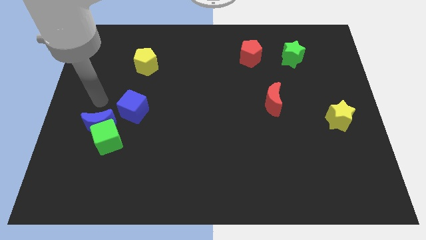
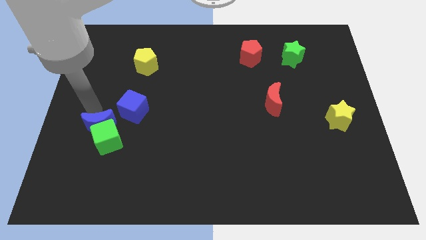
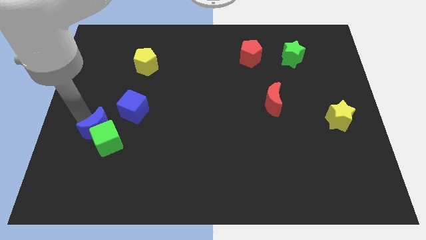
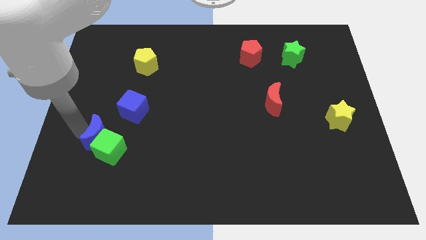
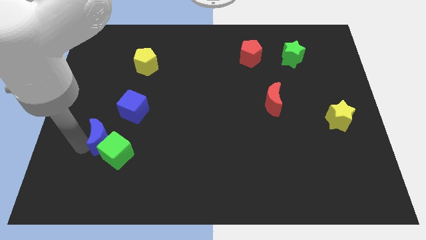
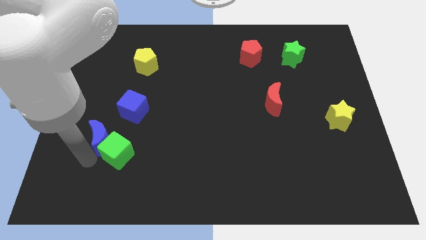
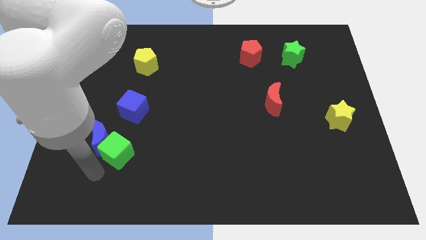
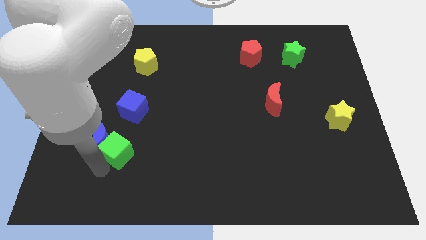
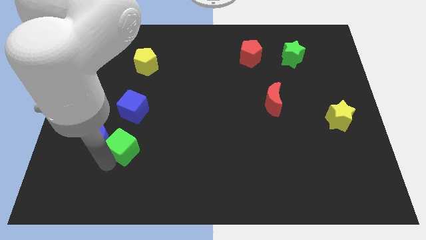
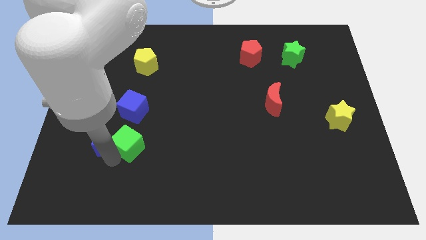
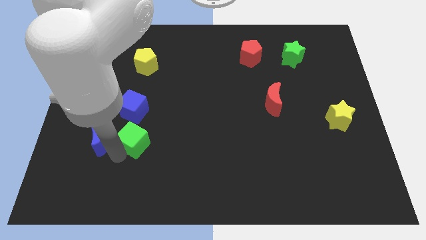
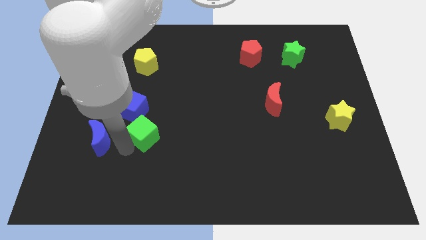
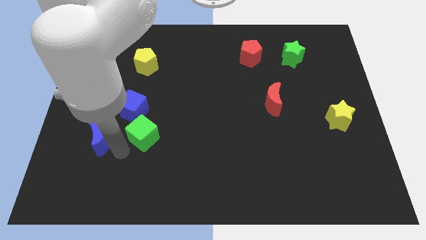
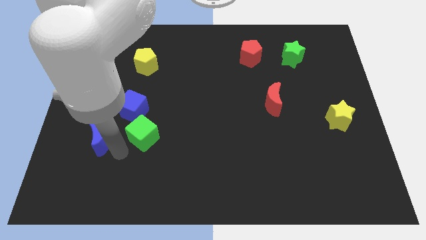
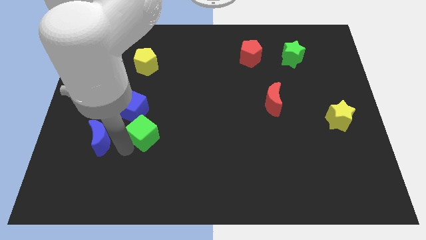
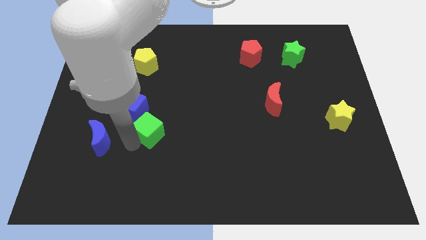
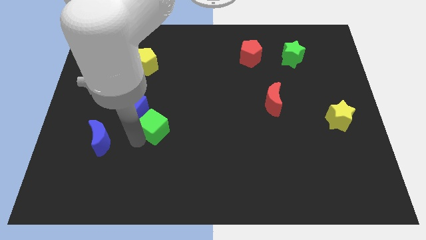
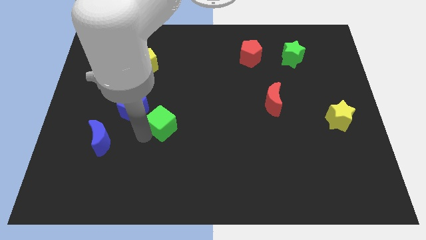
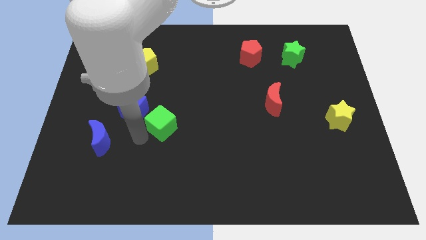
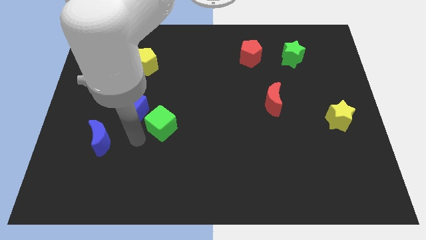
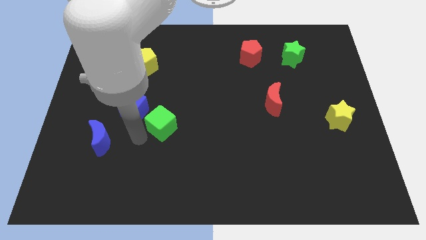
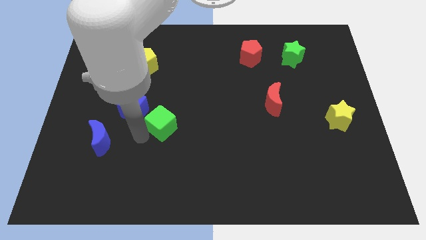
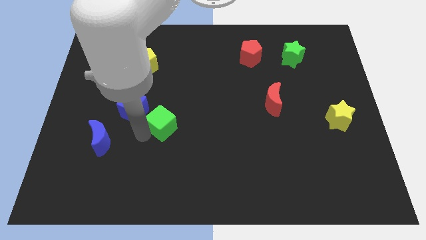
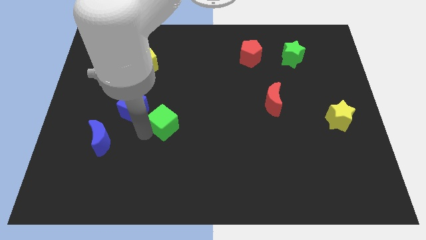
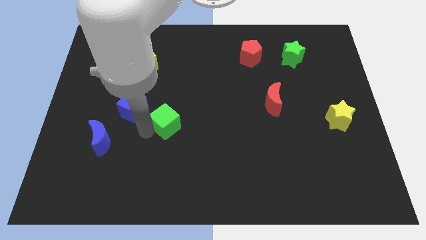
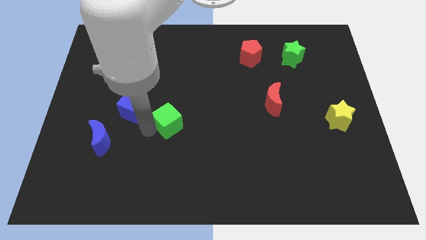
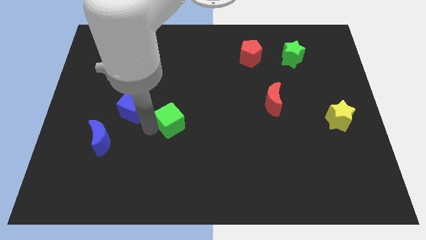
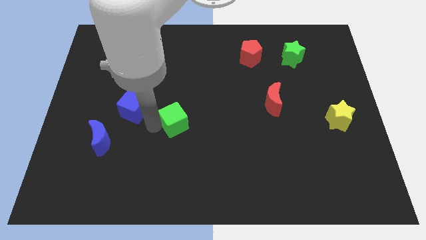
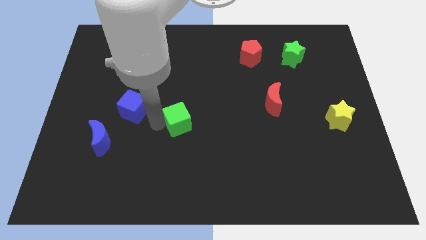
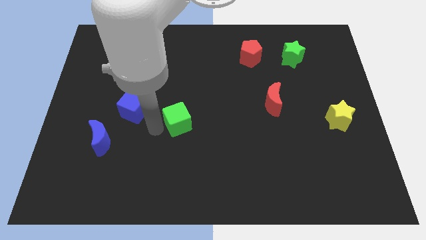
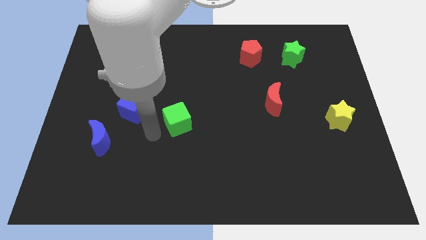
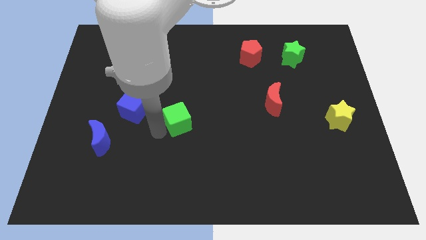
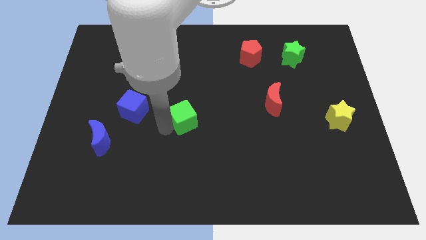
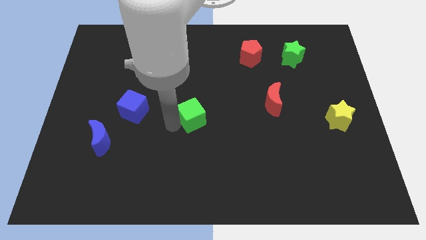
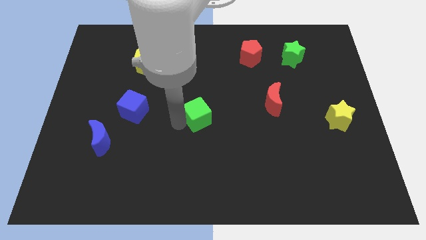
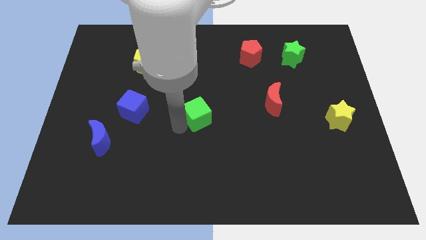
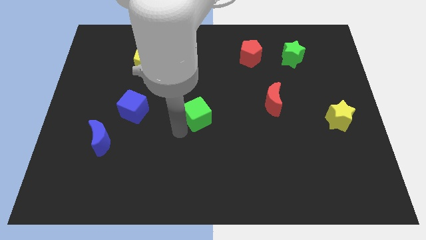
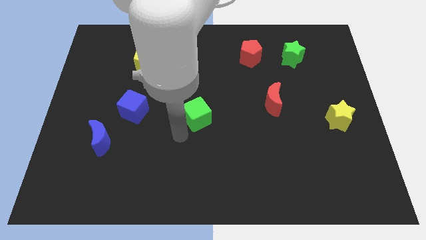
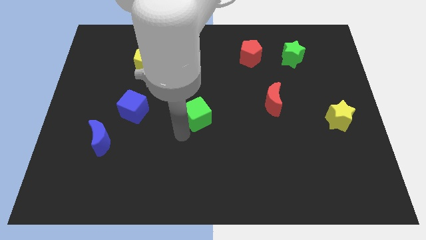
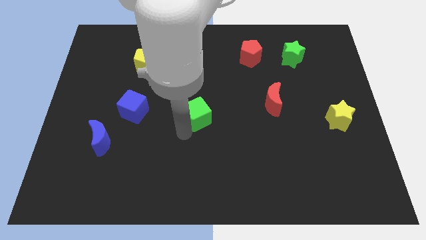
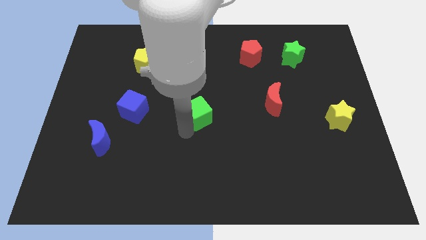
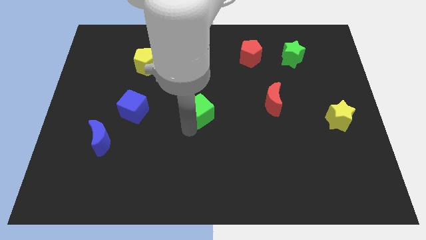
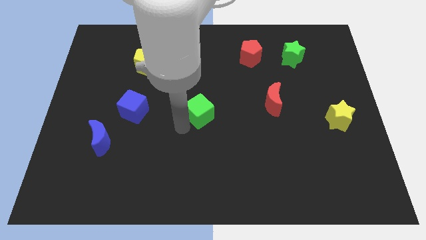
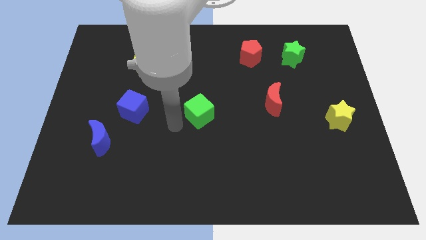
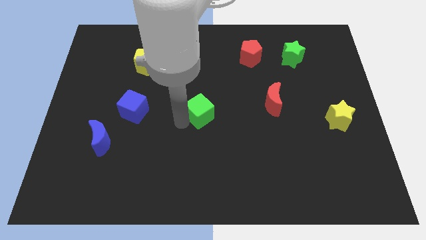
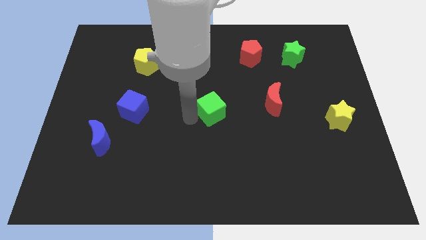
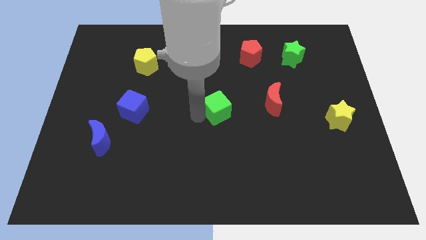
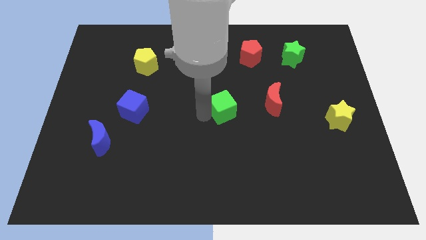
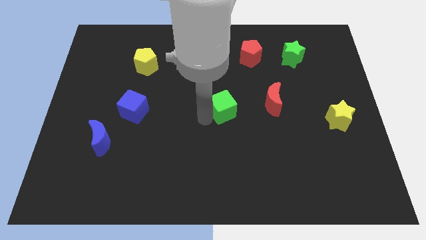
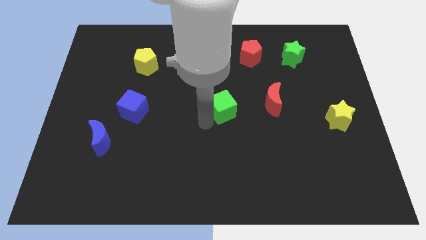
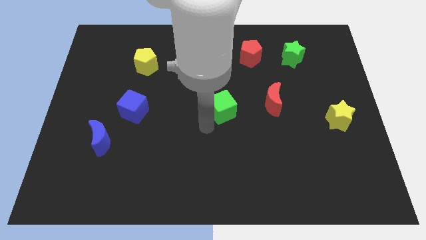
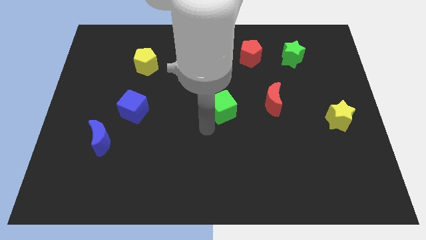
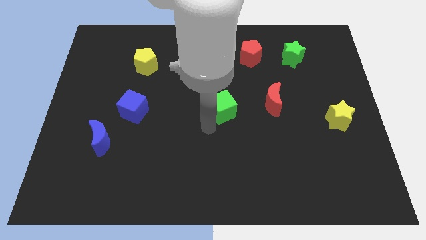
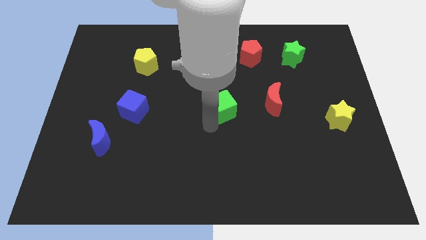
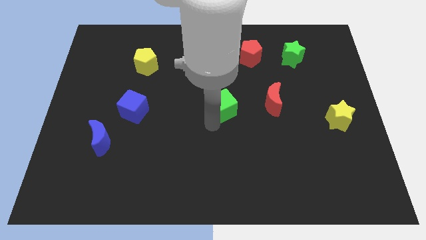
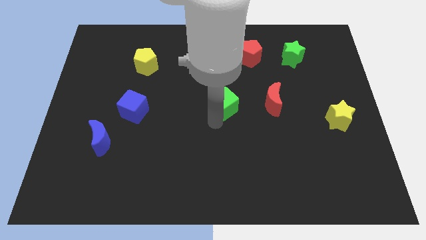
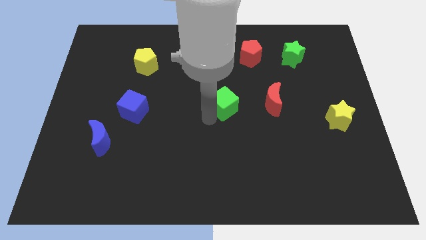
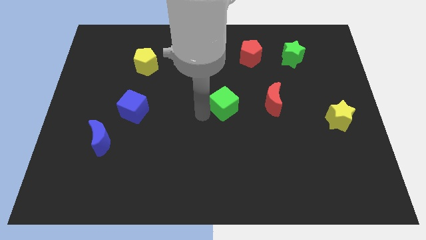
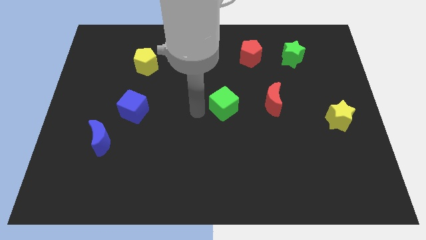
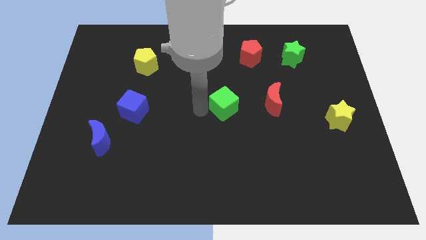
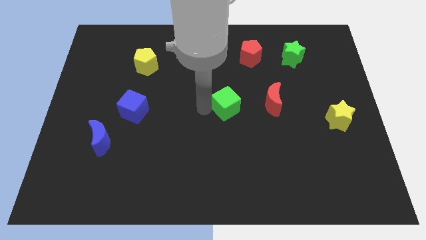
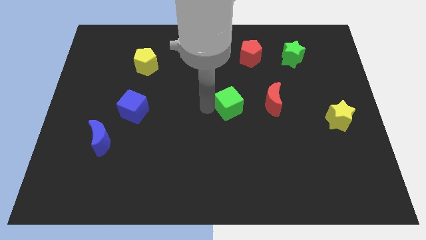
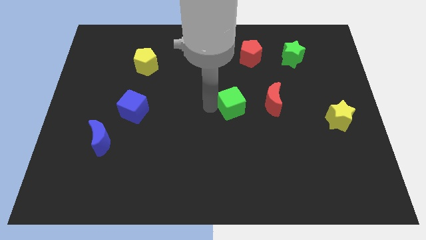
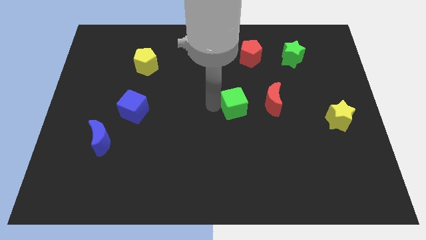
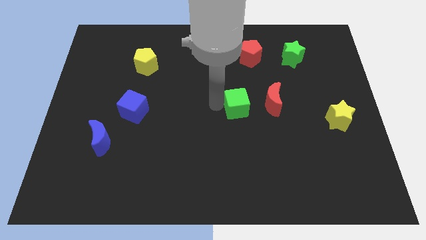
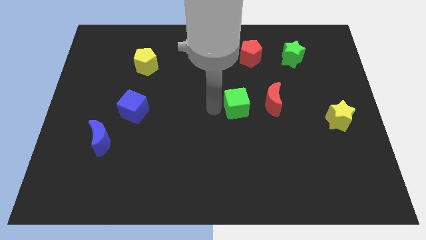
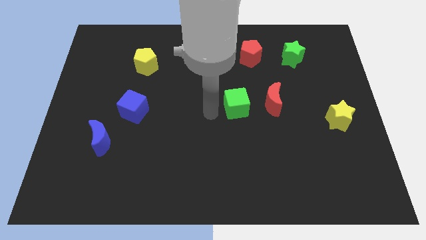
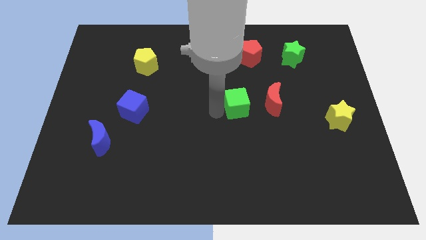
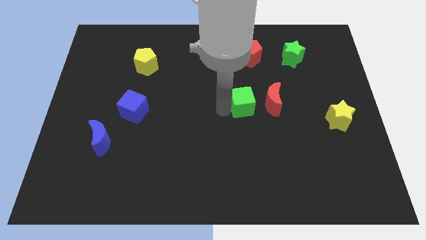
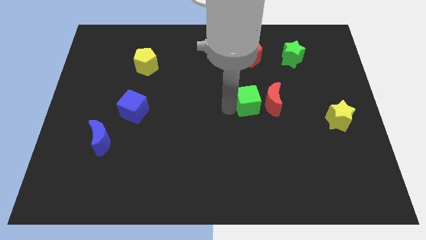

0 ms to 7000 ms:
put the green cube next to the red moon
